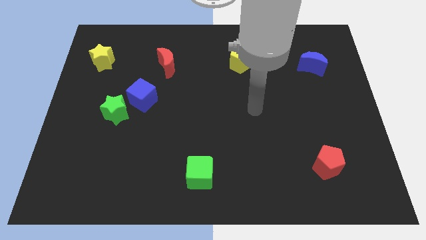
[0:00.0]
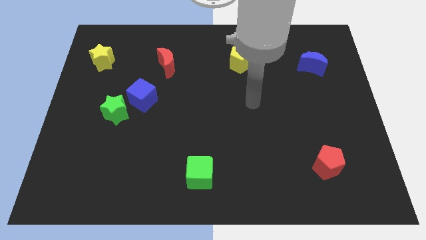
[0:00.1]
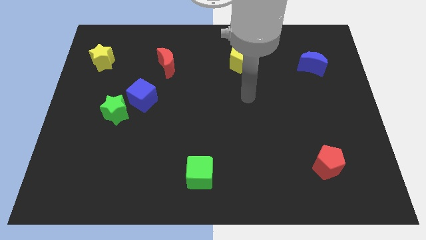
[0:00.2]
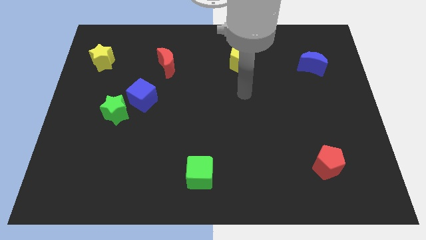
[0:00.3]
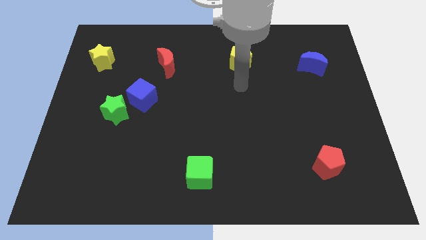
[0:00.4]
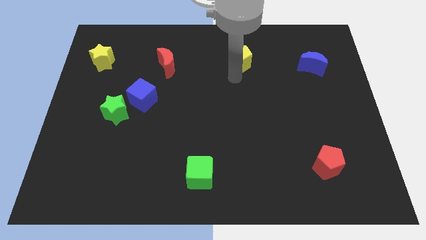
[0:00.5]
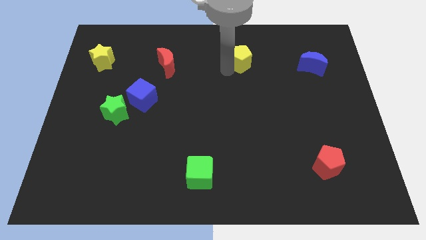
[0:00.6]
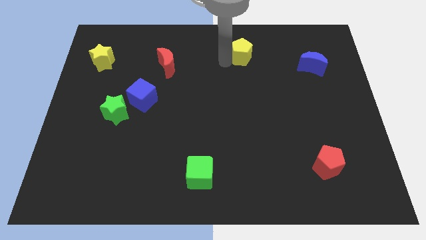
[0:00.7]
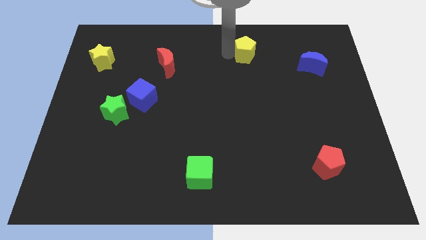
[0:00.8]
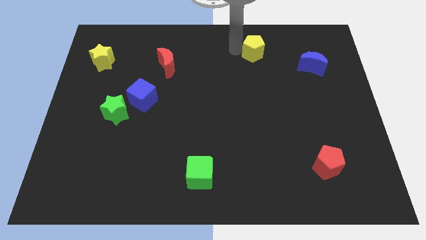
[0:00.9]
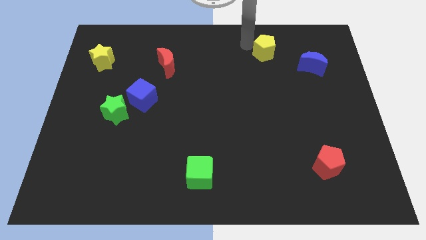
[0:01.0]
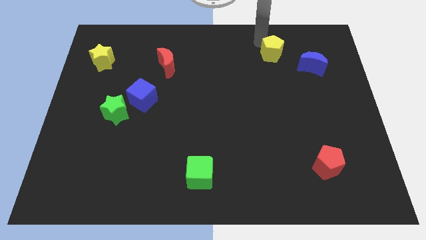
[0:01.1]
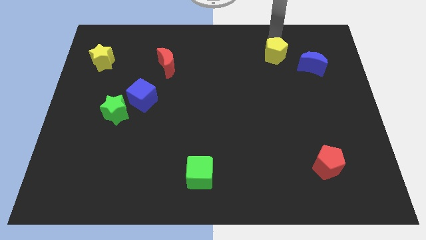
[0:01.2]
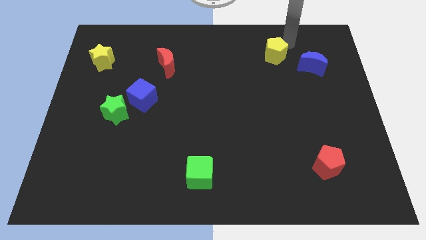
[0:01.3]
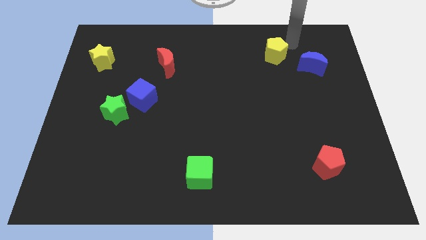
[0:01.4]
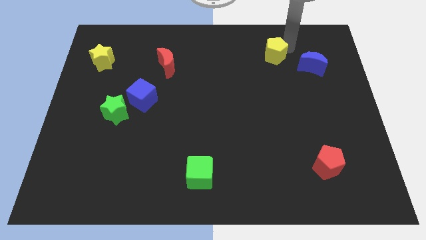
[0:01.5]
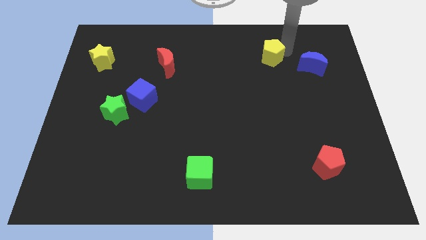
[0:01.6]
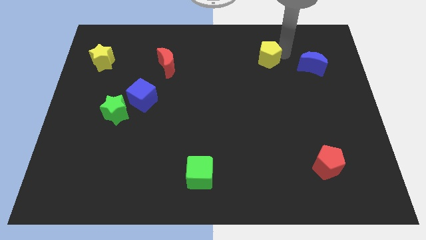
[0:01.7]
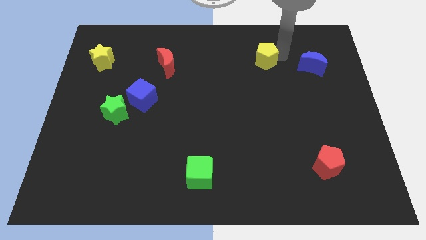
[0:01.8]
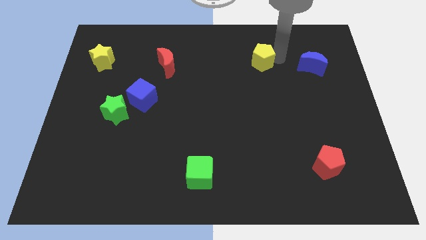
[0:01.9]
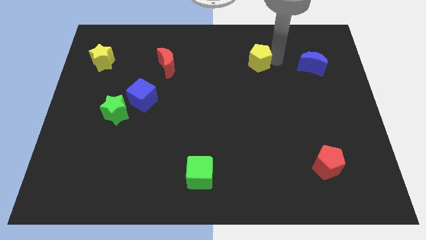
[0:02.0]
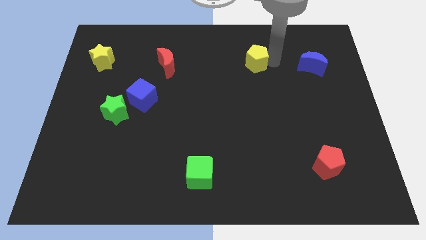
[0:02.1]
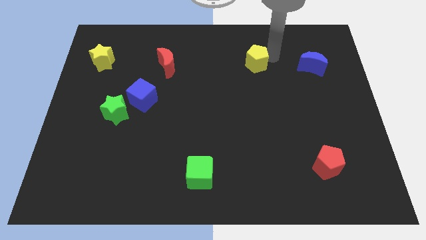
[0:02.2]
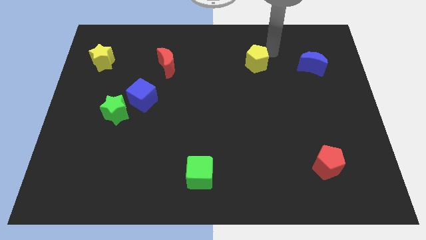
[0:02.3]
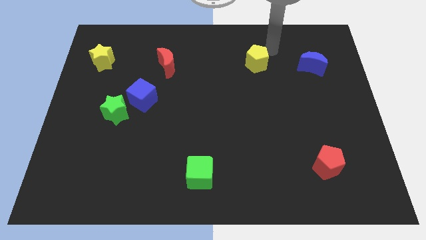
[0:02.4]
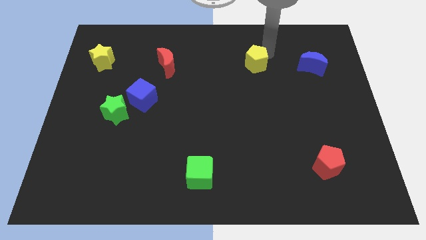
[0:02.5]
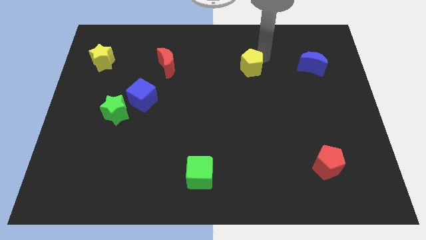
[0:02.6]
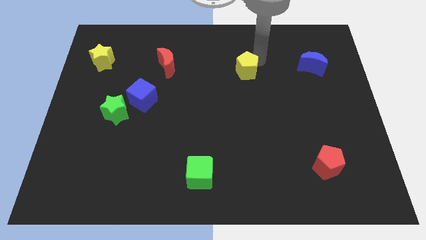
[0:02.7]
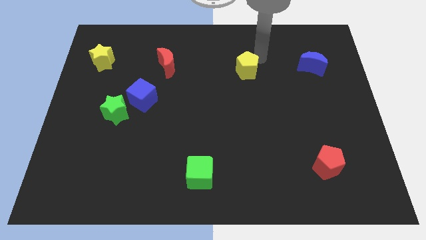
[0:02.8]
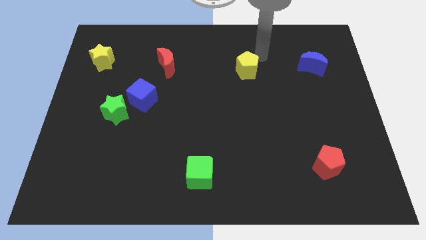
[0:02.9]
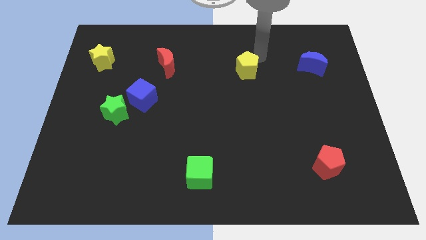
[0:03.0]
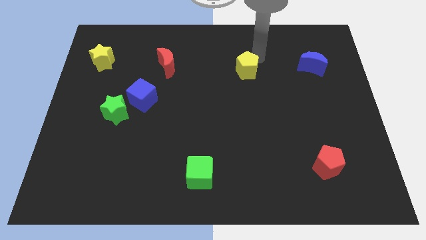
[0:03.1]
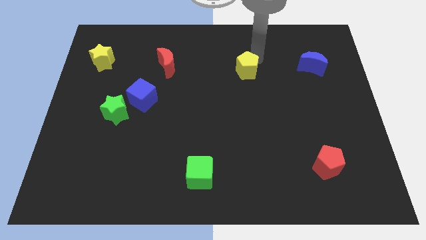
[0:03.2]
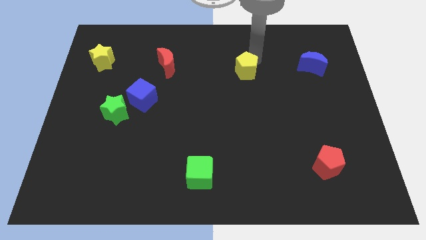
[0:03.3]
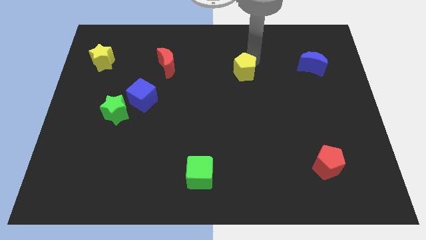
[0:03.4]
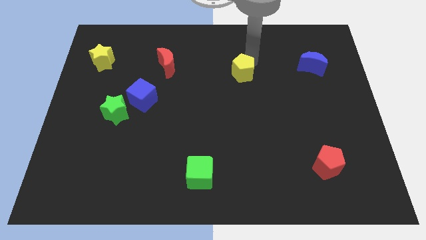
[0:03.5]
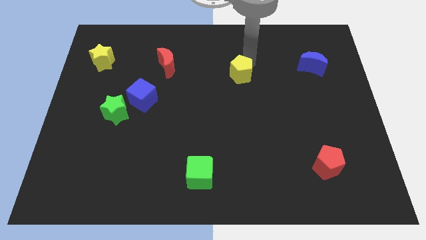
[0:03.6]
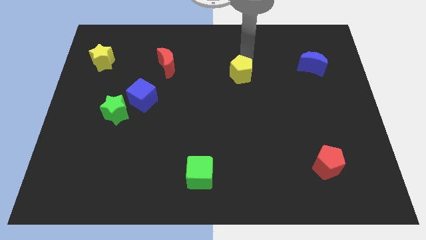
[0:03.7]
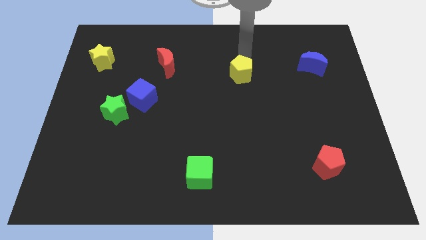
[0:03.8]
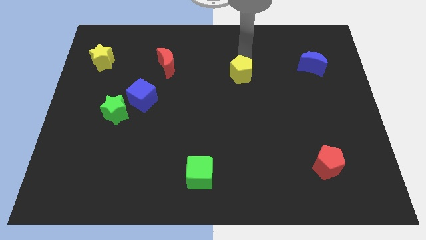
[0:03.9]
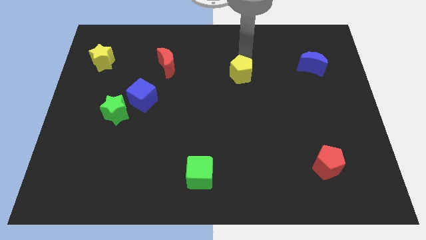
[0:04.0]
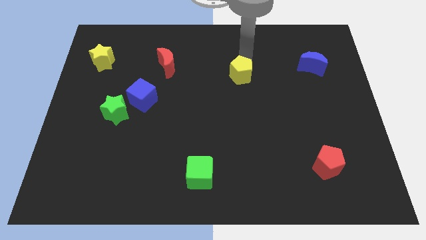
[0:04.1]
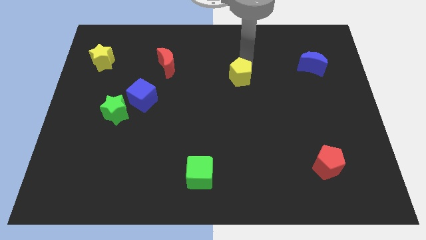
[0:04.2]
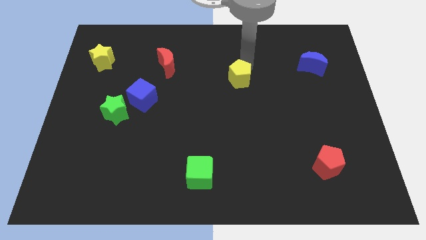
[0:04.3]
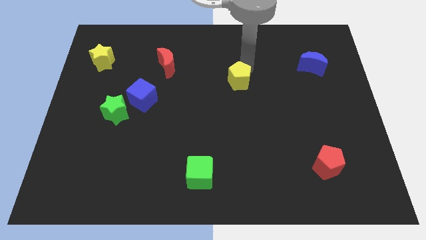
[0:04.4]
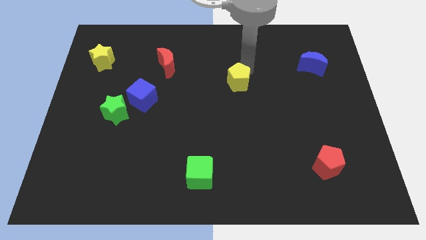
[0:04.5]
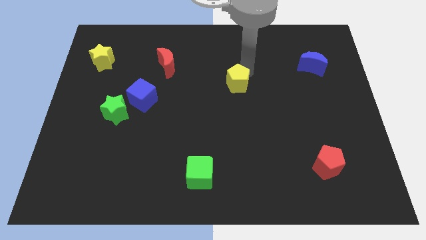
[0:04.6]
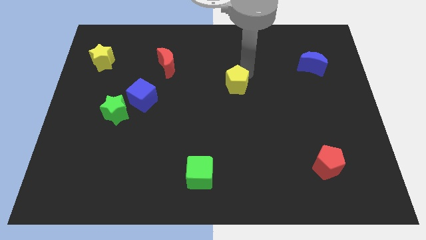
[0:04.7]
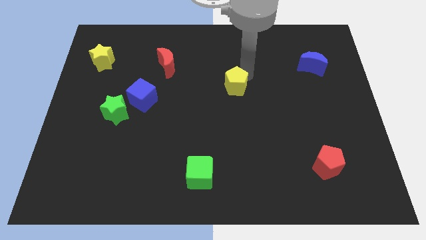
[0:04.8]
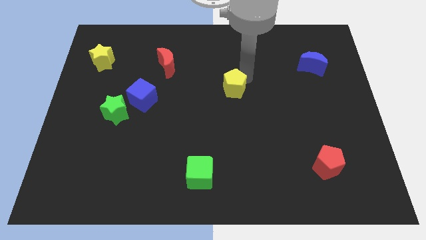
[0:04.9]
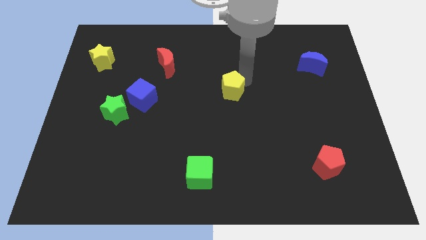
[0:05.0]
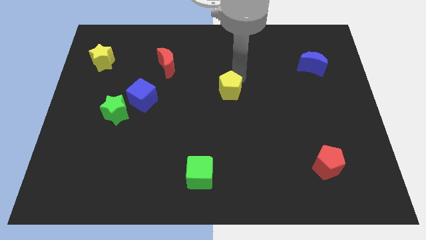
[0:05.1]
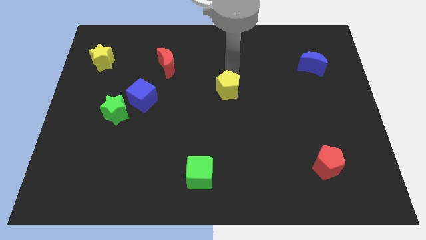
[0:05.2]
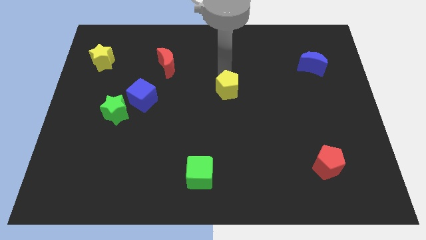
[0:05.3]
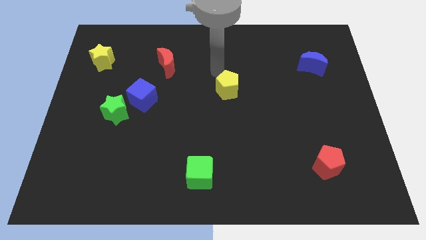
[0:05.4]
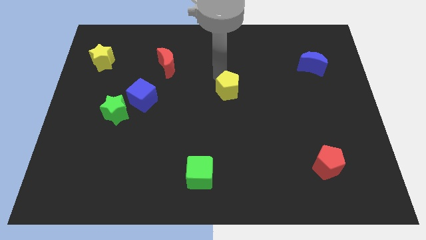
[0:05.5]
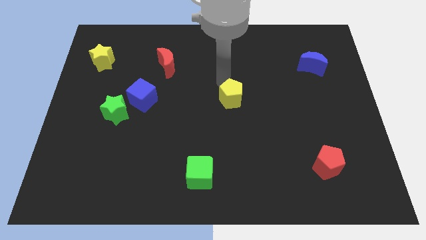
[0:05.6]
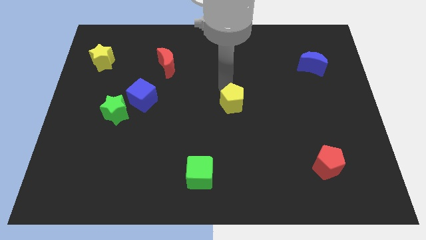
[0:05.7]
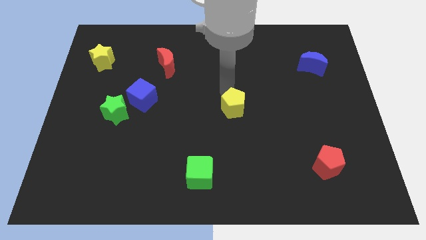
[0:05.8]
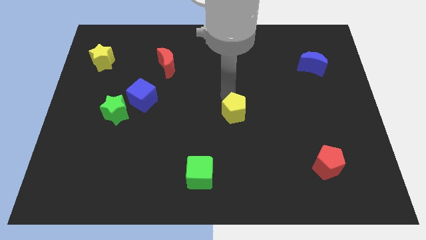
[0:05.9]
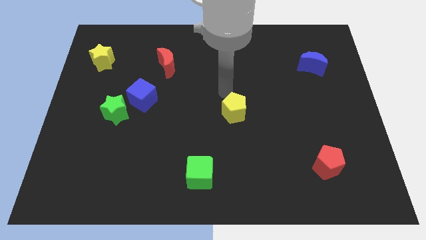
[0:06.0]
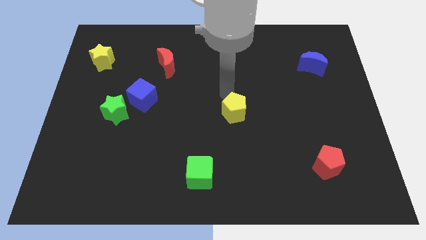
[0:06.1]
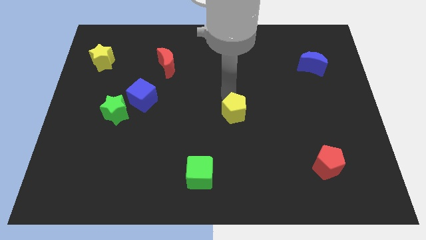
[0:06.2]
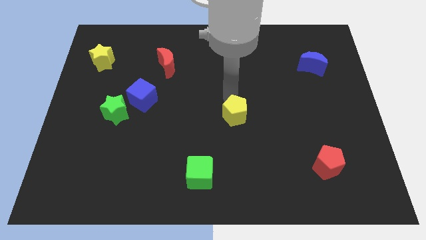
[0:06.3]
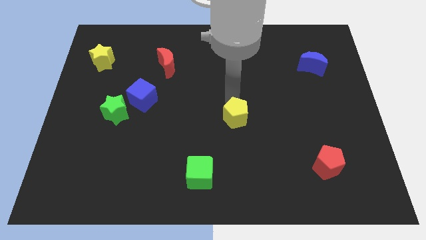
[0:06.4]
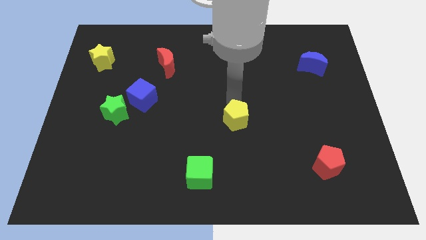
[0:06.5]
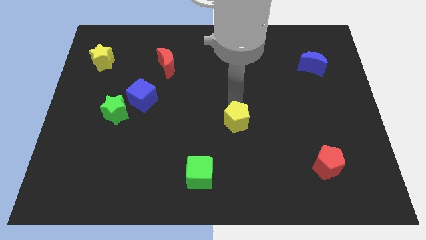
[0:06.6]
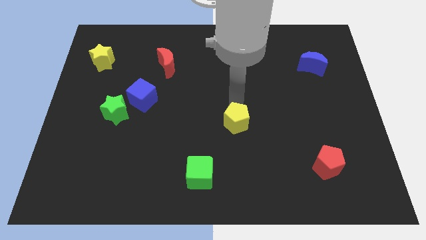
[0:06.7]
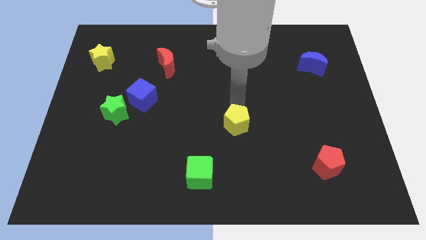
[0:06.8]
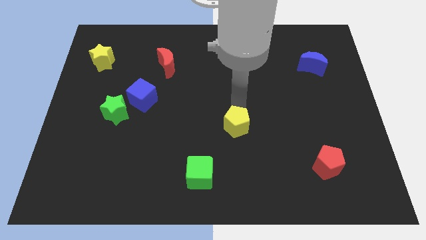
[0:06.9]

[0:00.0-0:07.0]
move the yellow pentagon down

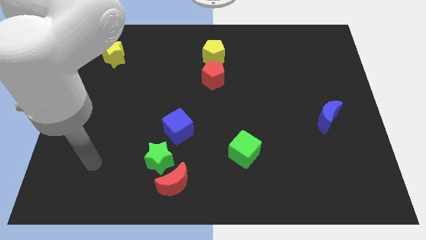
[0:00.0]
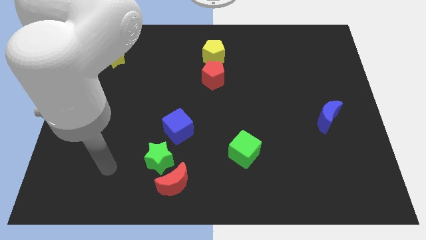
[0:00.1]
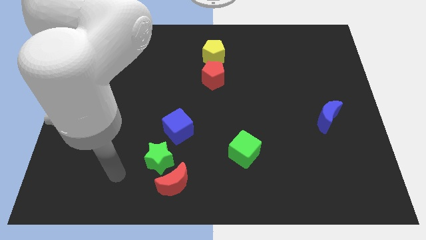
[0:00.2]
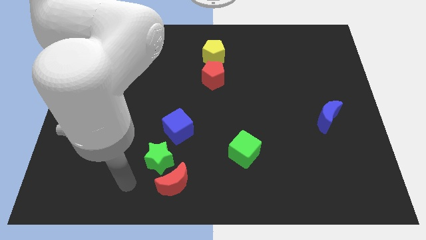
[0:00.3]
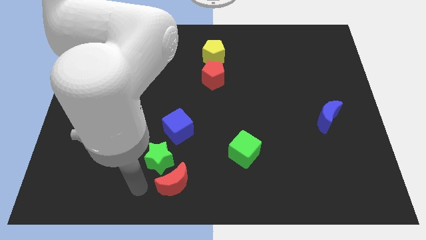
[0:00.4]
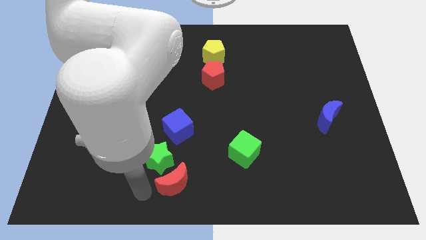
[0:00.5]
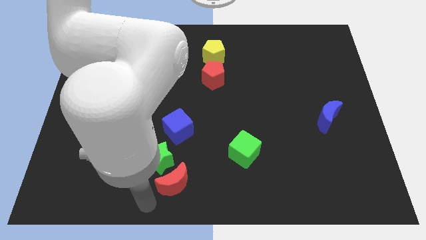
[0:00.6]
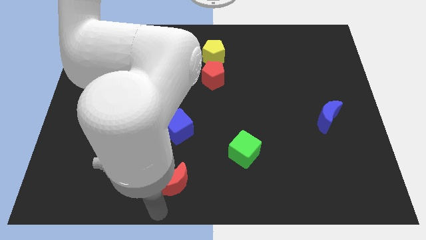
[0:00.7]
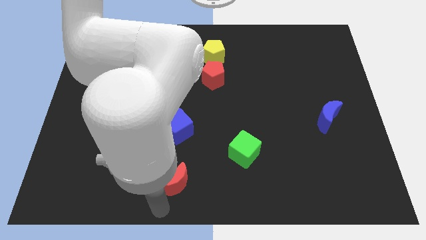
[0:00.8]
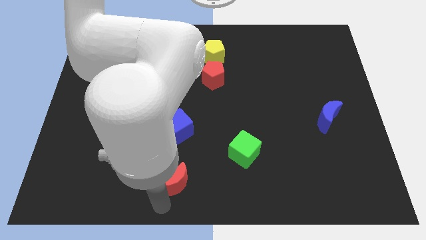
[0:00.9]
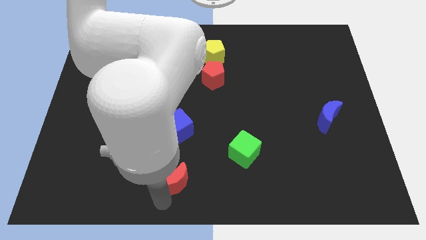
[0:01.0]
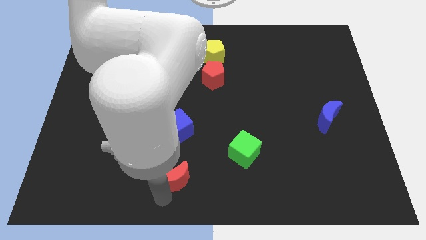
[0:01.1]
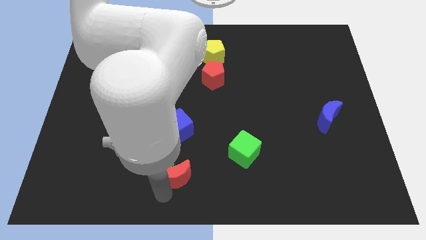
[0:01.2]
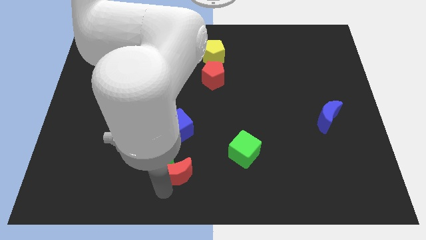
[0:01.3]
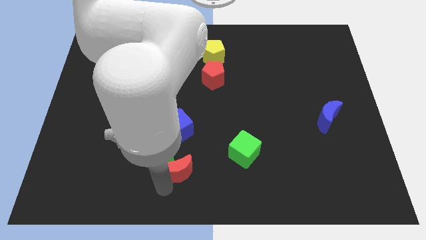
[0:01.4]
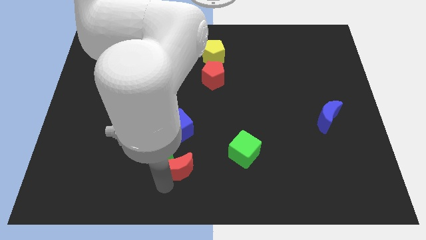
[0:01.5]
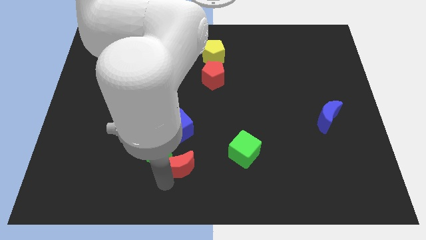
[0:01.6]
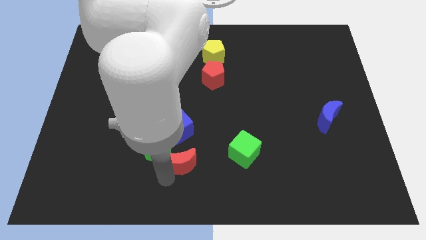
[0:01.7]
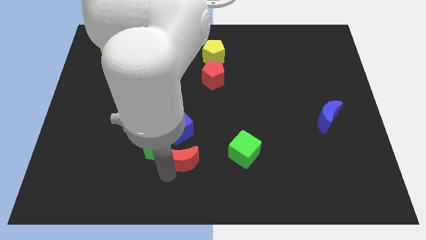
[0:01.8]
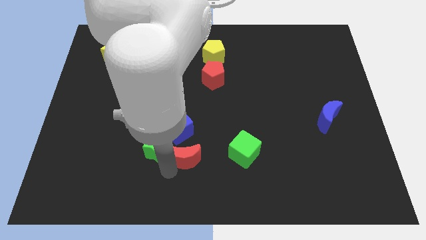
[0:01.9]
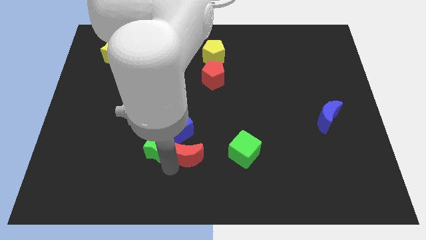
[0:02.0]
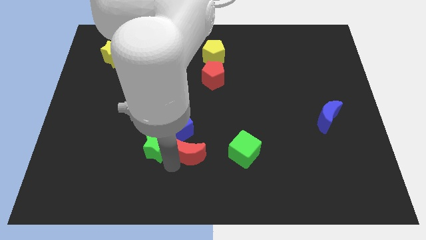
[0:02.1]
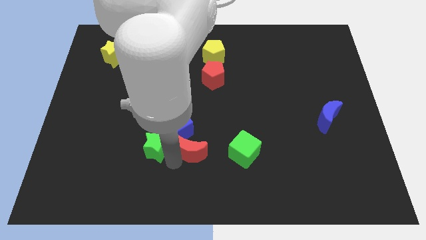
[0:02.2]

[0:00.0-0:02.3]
move the red moon slightly upwards
